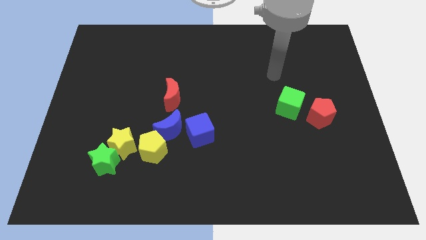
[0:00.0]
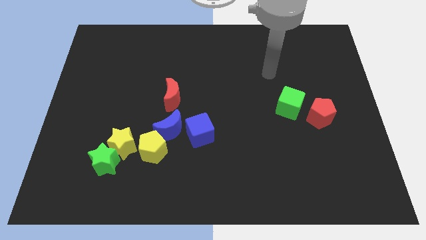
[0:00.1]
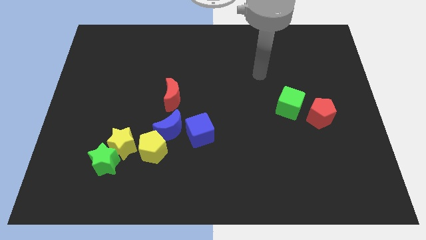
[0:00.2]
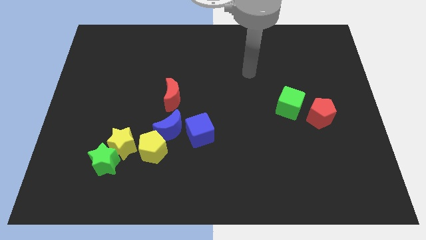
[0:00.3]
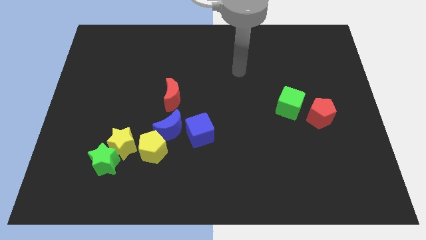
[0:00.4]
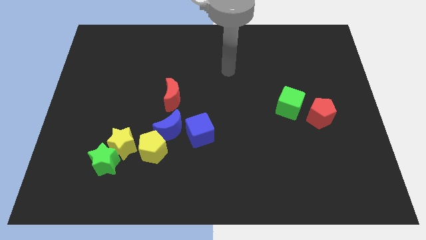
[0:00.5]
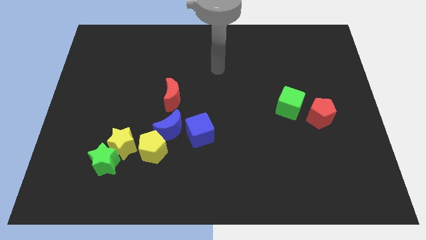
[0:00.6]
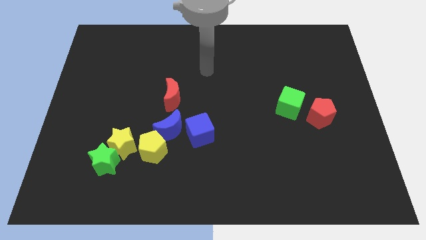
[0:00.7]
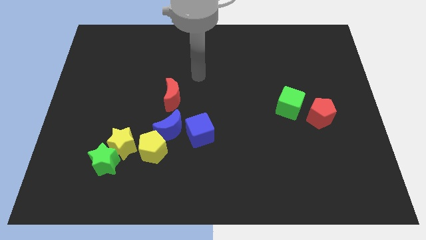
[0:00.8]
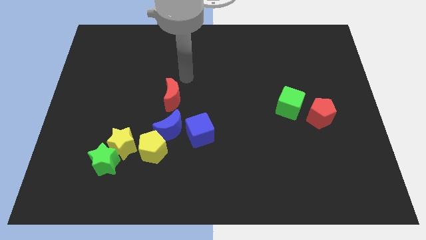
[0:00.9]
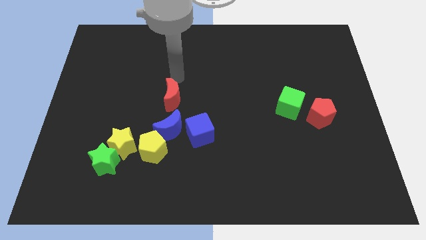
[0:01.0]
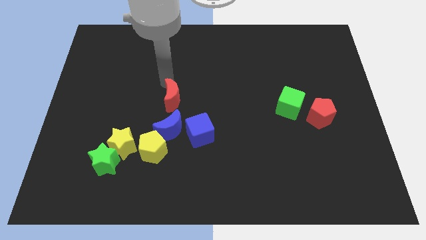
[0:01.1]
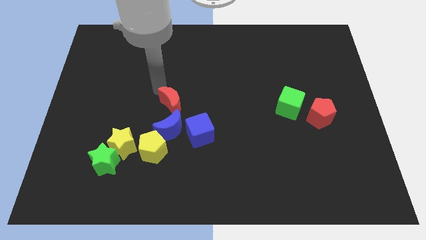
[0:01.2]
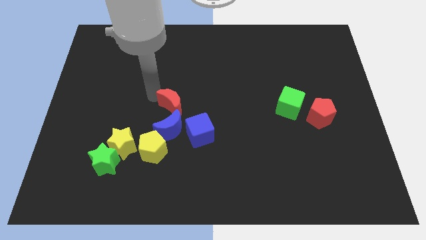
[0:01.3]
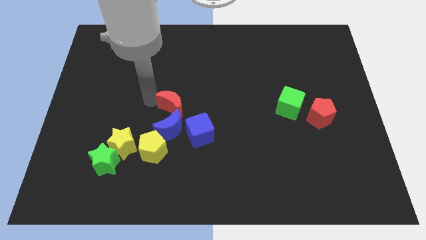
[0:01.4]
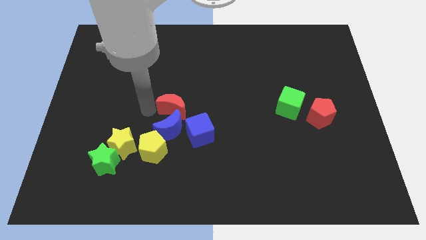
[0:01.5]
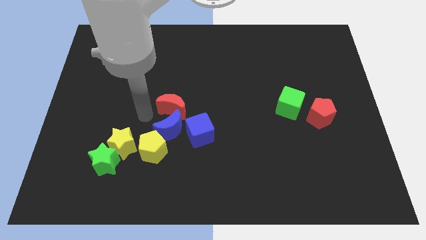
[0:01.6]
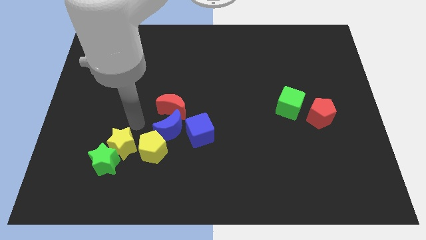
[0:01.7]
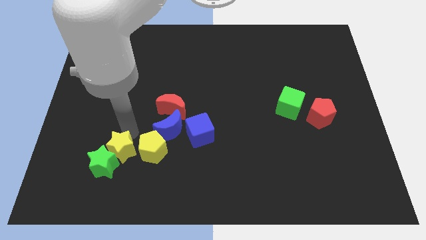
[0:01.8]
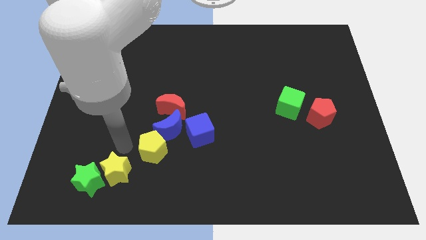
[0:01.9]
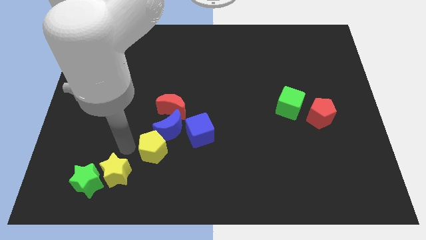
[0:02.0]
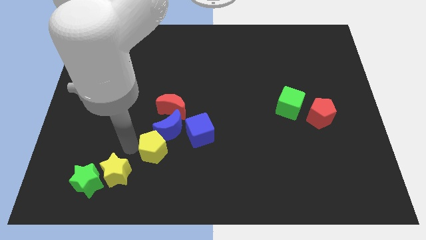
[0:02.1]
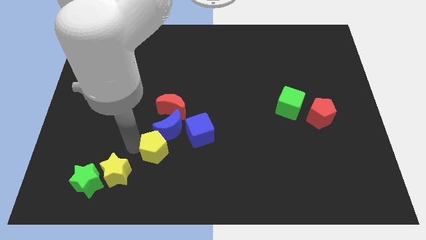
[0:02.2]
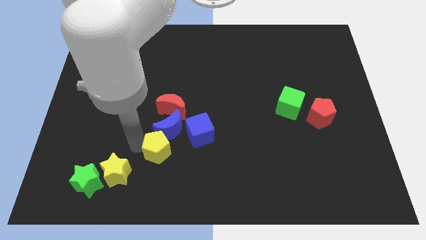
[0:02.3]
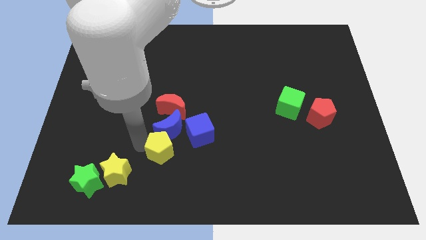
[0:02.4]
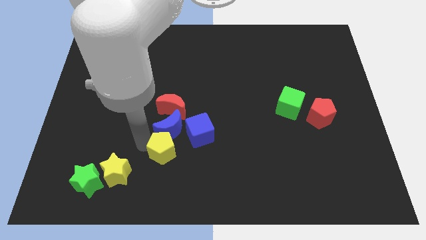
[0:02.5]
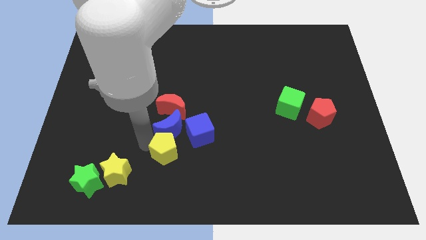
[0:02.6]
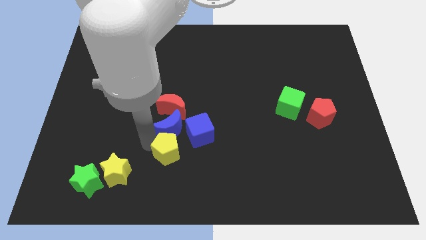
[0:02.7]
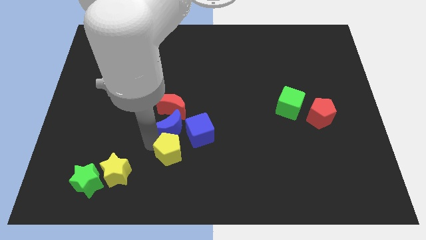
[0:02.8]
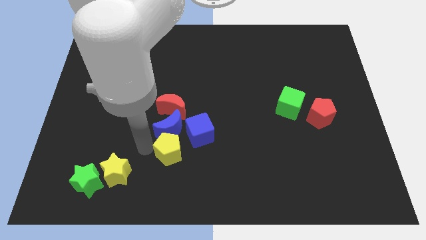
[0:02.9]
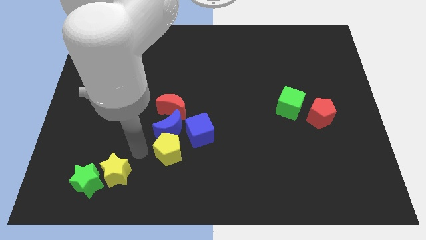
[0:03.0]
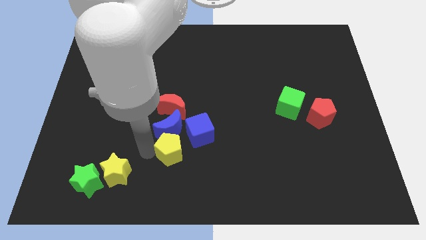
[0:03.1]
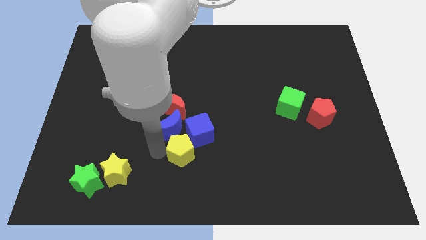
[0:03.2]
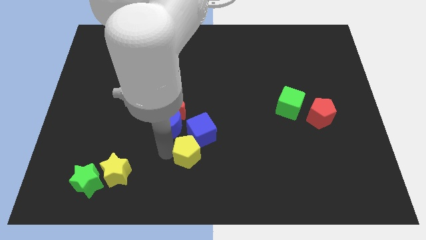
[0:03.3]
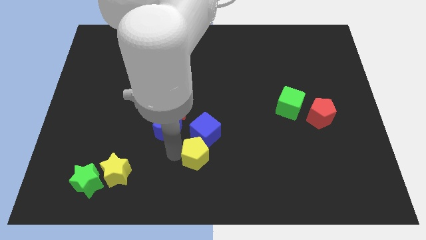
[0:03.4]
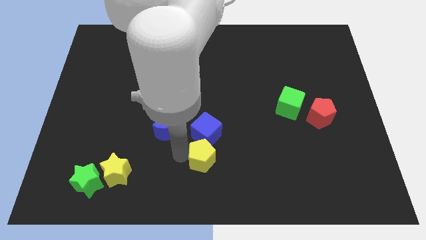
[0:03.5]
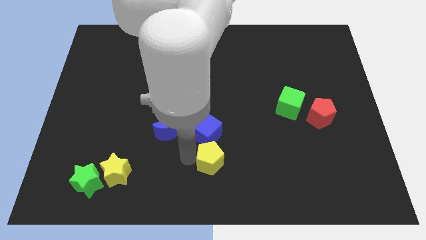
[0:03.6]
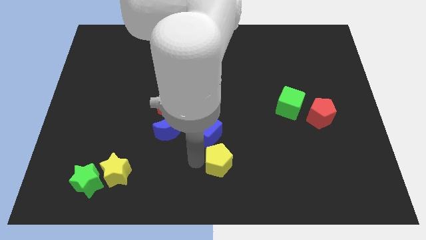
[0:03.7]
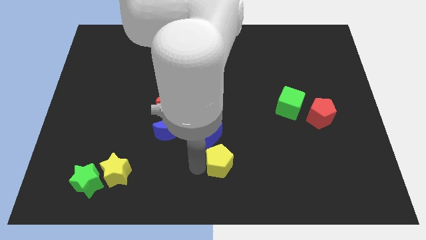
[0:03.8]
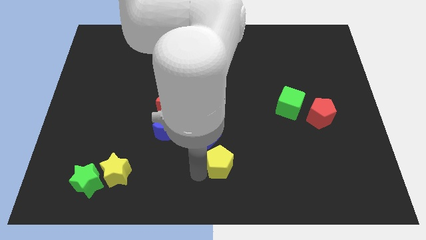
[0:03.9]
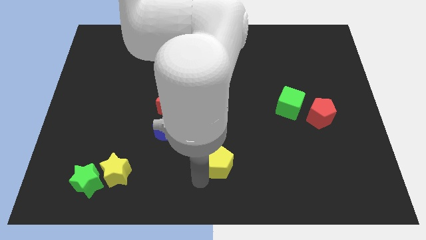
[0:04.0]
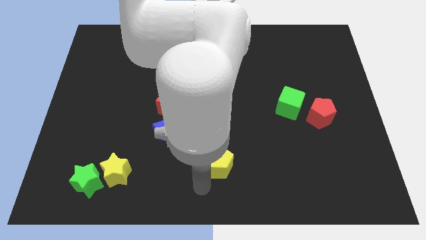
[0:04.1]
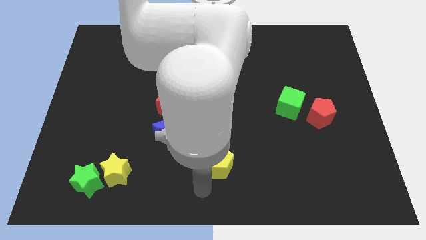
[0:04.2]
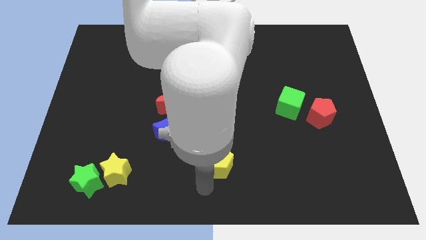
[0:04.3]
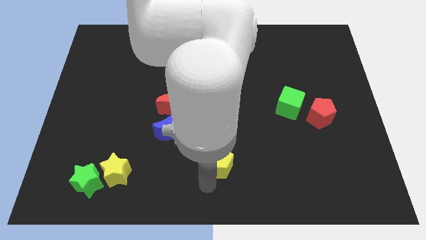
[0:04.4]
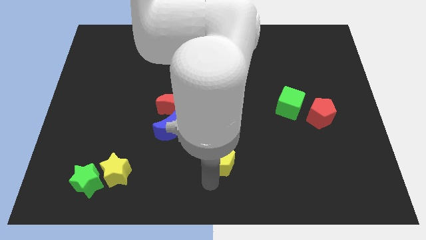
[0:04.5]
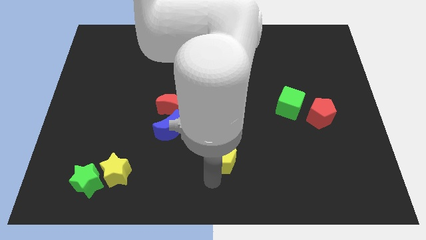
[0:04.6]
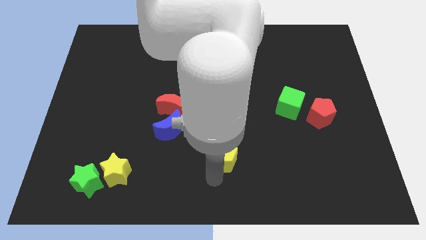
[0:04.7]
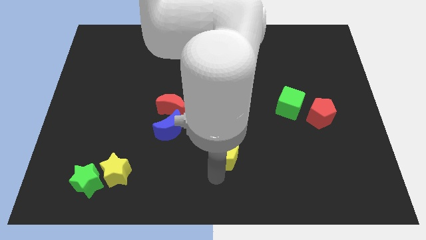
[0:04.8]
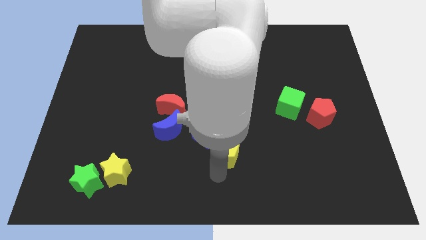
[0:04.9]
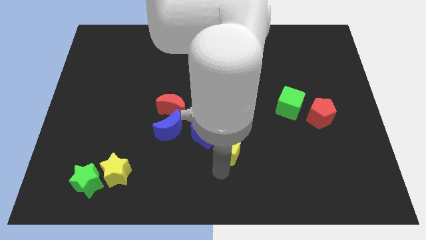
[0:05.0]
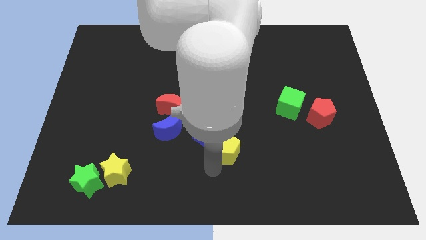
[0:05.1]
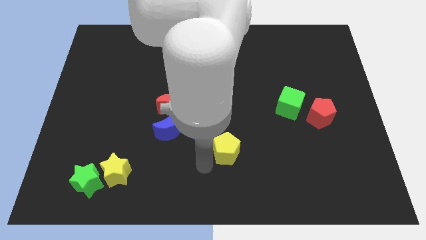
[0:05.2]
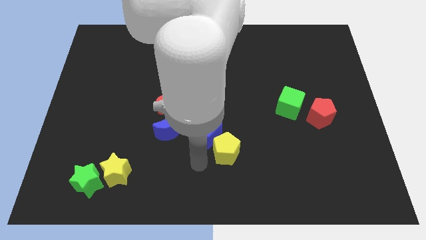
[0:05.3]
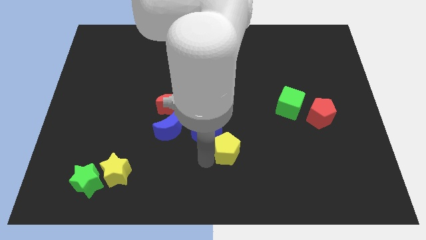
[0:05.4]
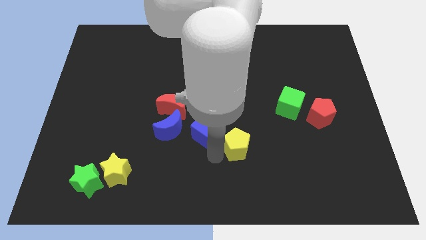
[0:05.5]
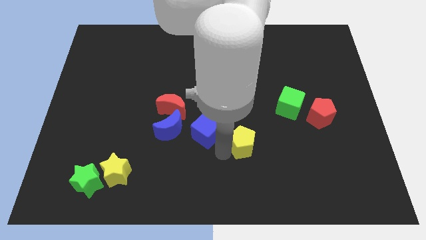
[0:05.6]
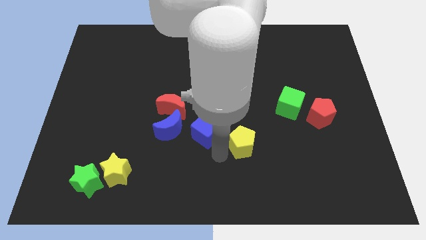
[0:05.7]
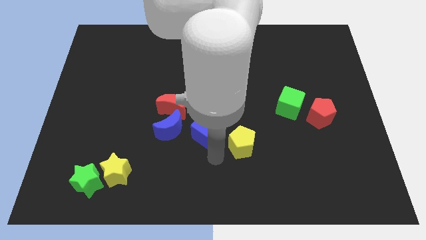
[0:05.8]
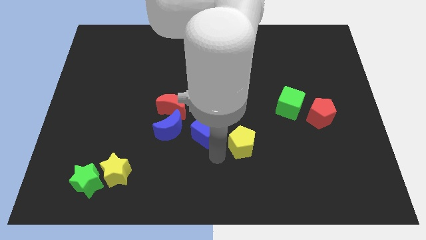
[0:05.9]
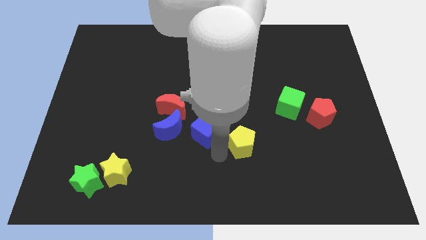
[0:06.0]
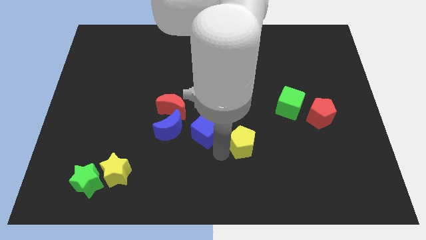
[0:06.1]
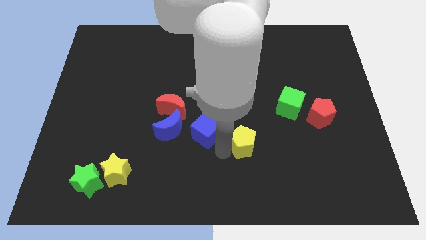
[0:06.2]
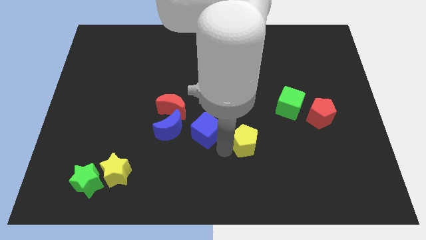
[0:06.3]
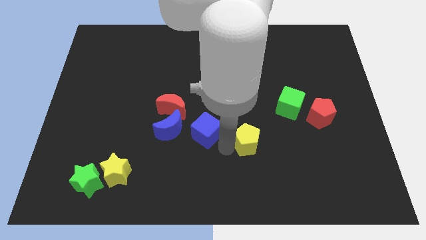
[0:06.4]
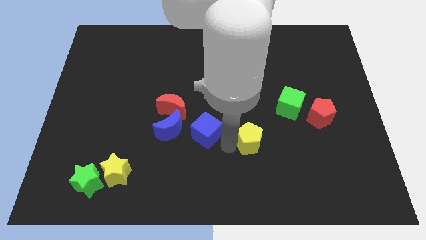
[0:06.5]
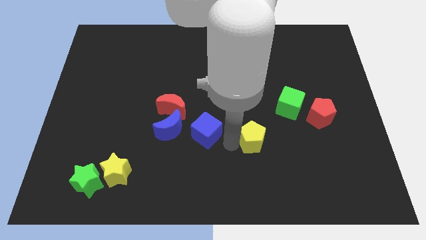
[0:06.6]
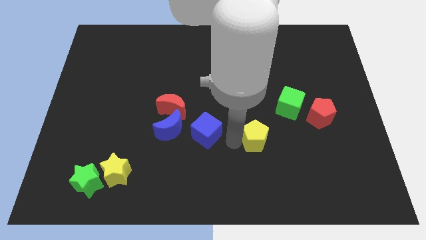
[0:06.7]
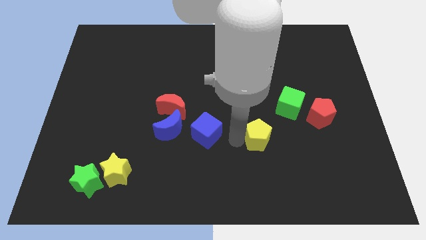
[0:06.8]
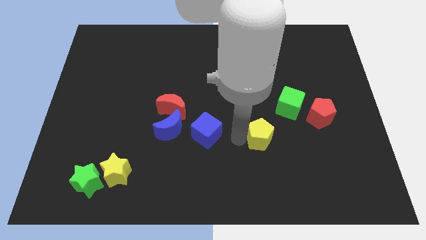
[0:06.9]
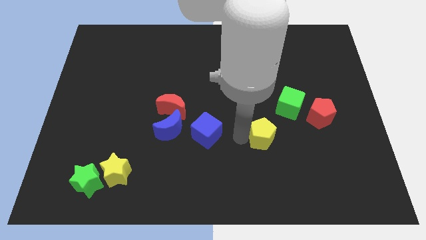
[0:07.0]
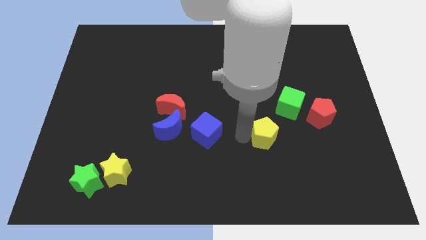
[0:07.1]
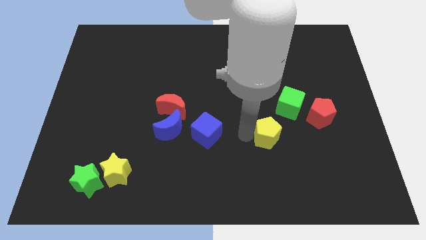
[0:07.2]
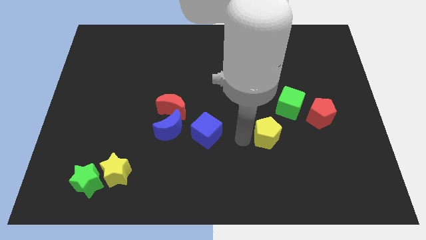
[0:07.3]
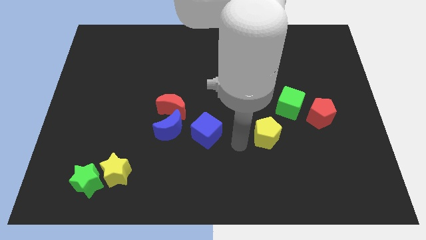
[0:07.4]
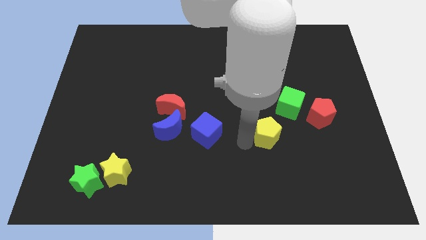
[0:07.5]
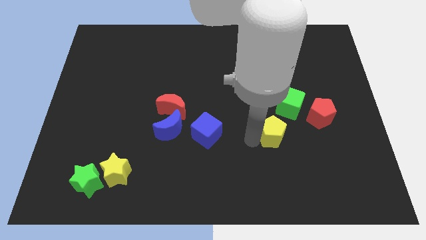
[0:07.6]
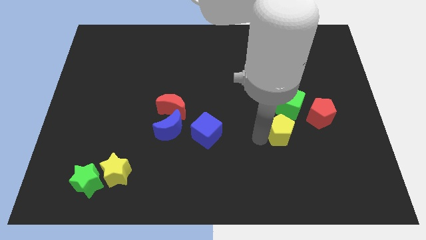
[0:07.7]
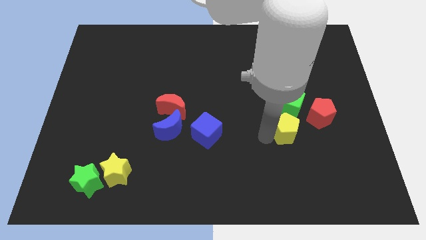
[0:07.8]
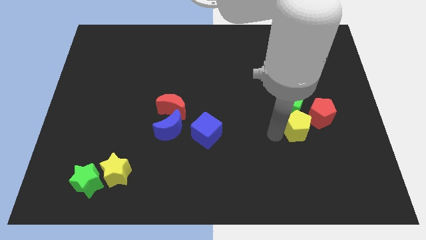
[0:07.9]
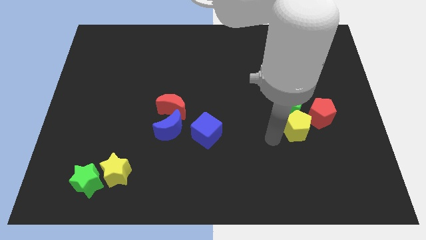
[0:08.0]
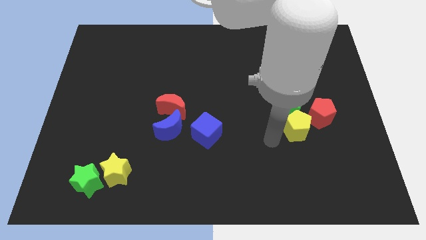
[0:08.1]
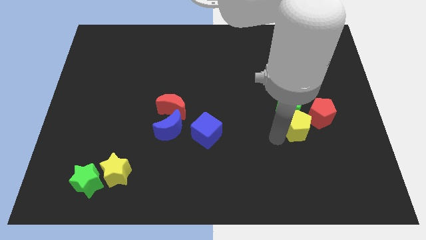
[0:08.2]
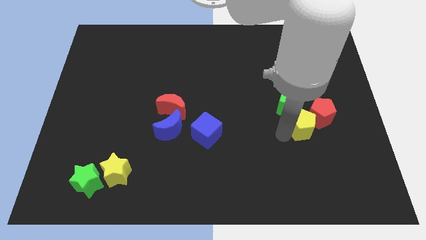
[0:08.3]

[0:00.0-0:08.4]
put the yellow pentagon towards the red pentagon
